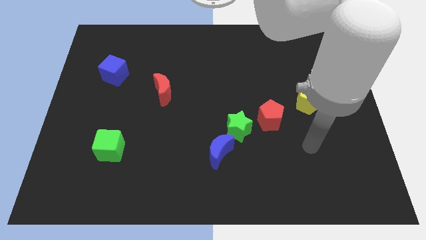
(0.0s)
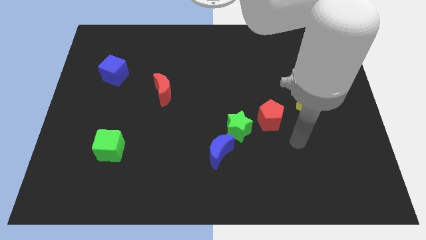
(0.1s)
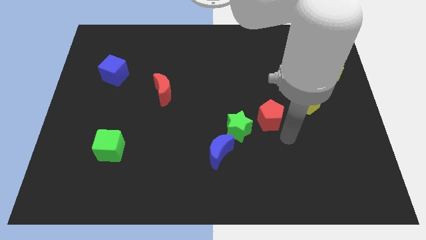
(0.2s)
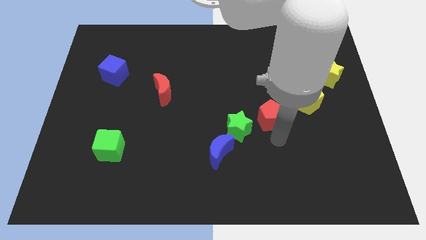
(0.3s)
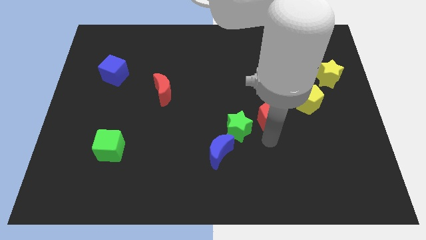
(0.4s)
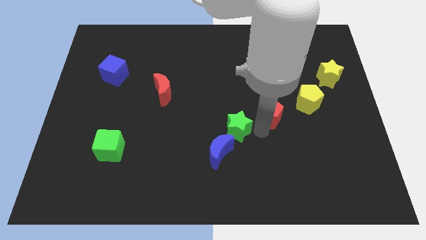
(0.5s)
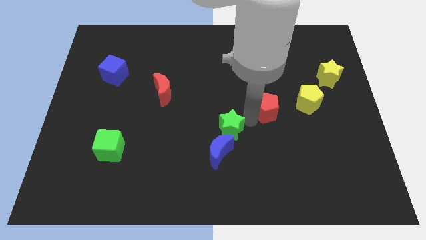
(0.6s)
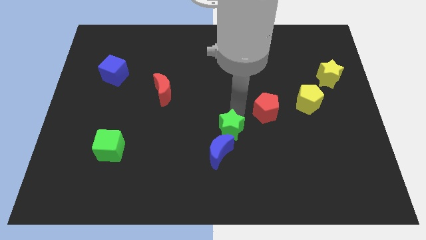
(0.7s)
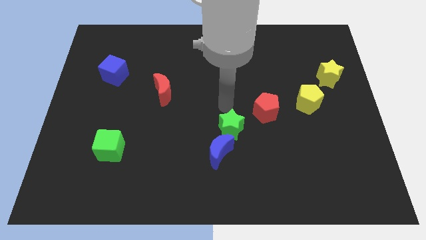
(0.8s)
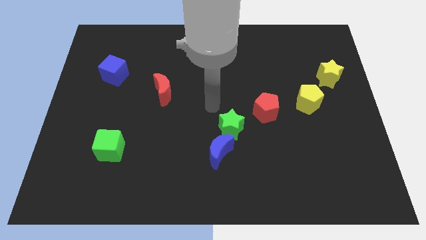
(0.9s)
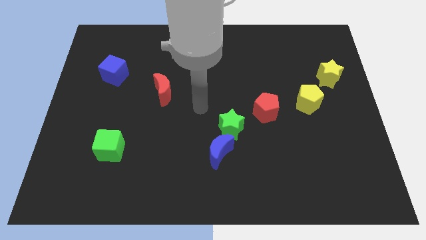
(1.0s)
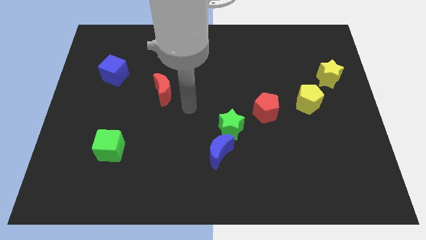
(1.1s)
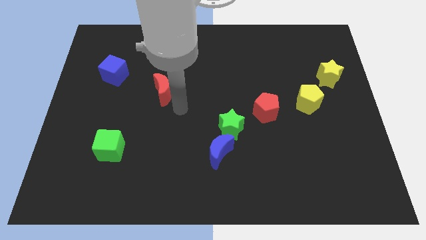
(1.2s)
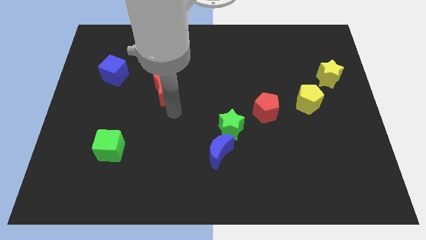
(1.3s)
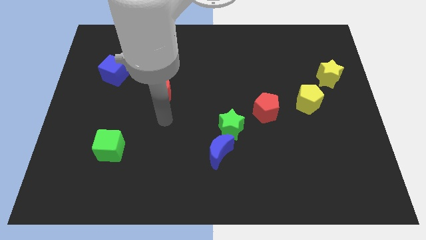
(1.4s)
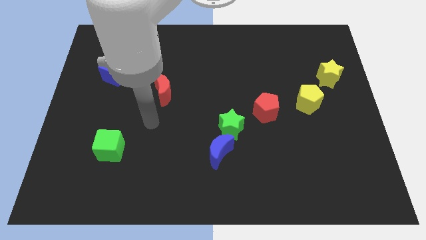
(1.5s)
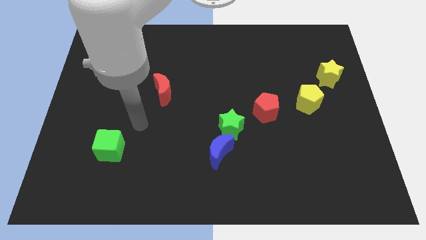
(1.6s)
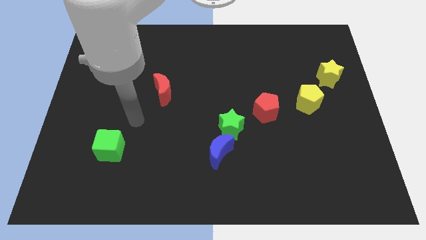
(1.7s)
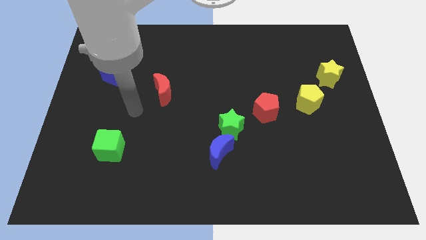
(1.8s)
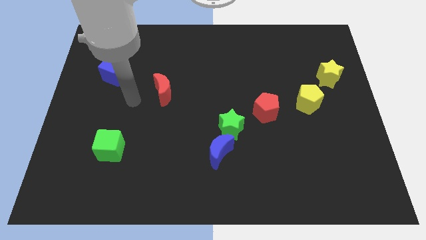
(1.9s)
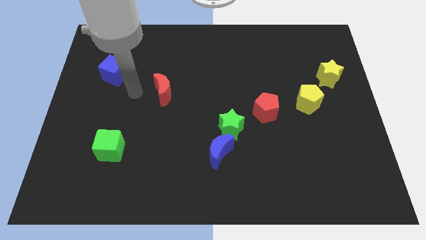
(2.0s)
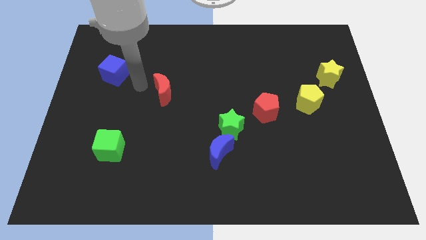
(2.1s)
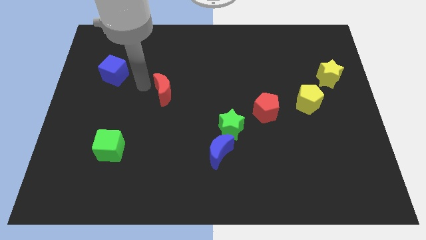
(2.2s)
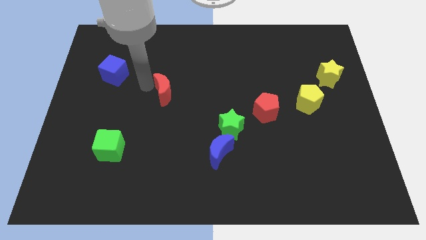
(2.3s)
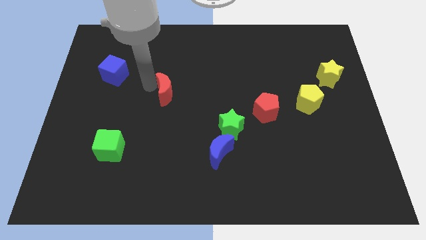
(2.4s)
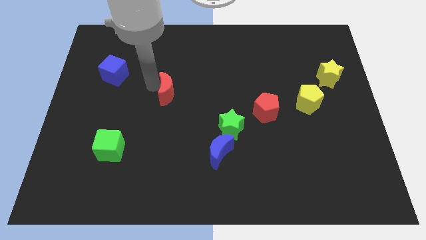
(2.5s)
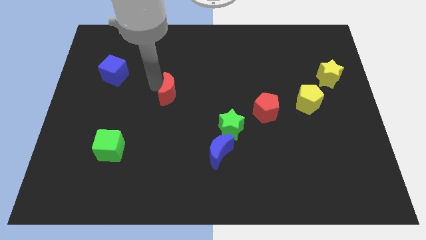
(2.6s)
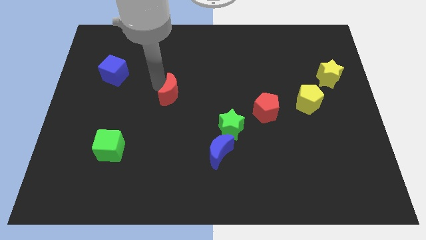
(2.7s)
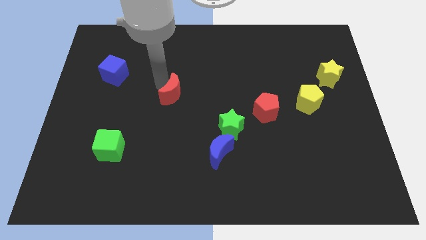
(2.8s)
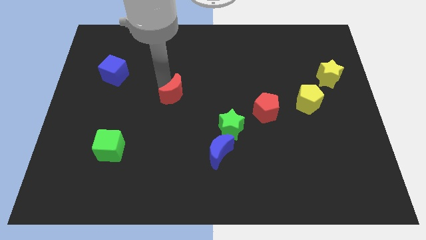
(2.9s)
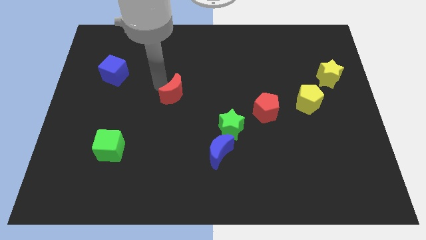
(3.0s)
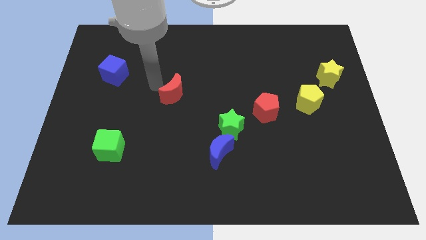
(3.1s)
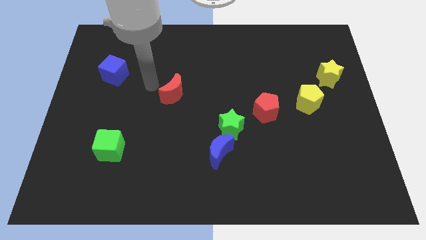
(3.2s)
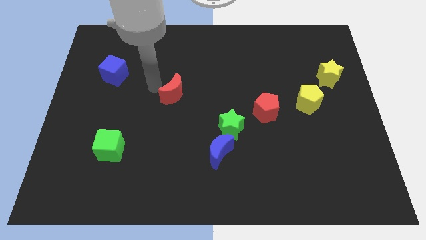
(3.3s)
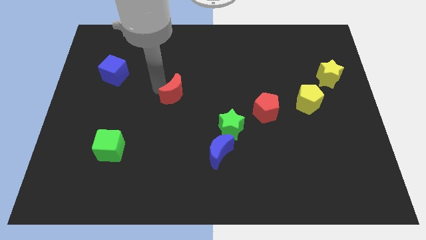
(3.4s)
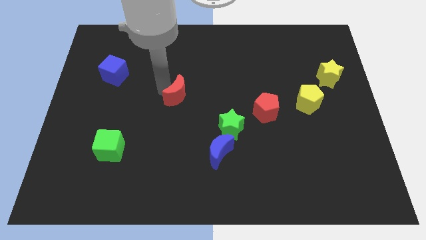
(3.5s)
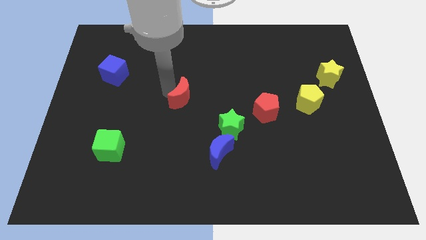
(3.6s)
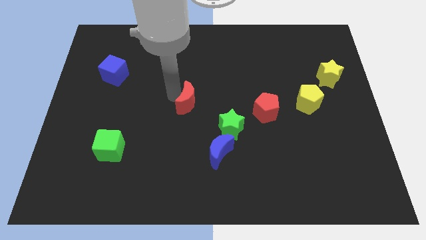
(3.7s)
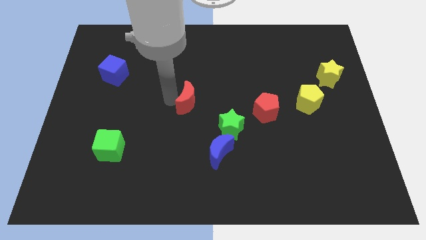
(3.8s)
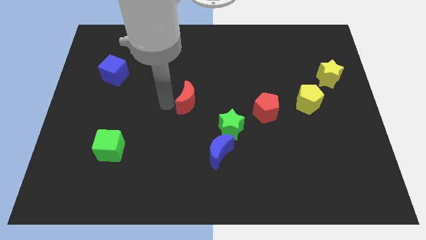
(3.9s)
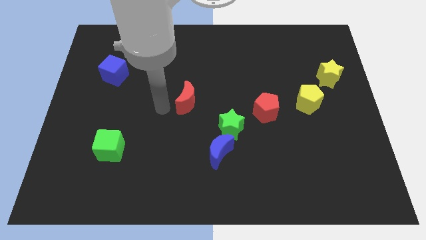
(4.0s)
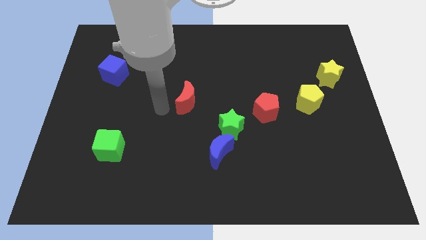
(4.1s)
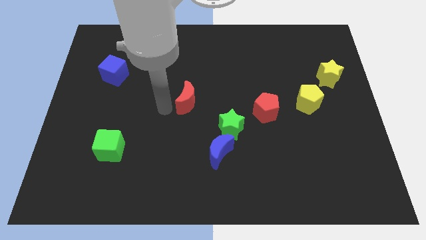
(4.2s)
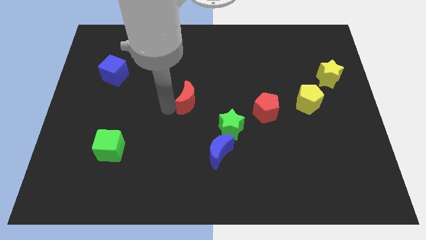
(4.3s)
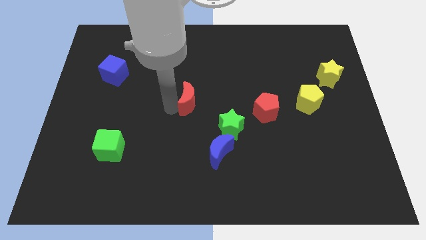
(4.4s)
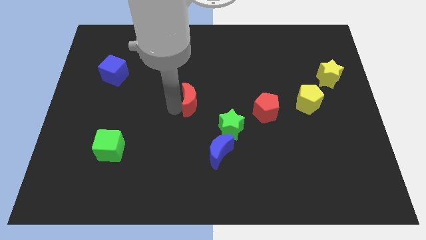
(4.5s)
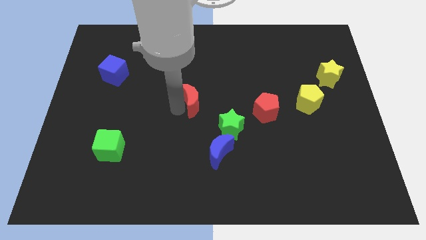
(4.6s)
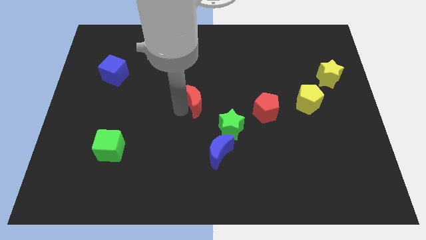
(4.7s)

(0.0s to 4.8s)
push the red moon a little to the right

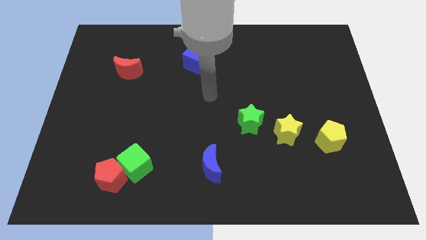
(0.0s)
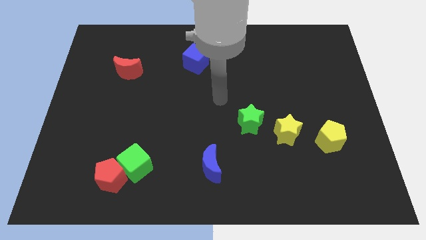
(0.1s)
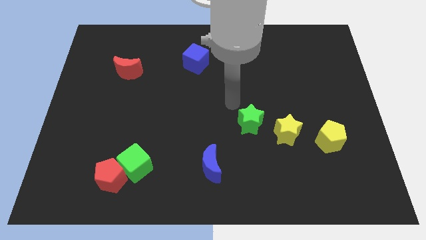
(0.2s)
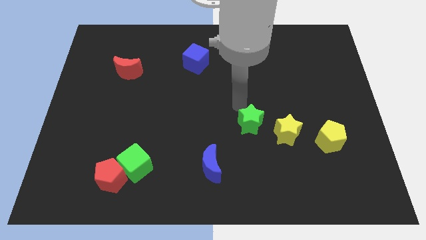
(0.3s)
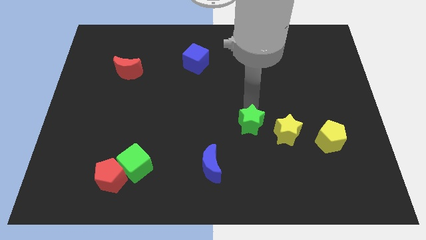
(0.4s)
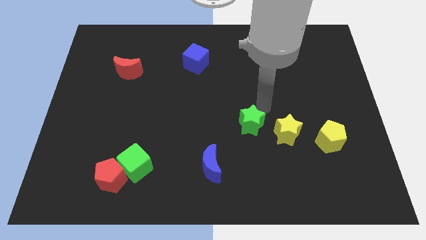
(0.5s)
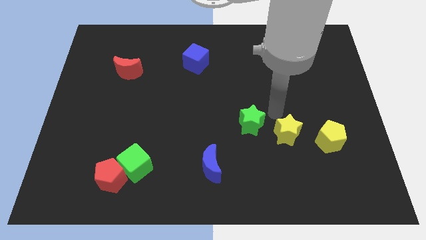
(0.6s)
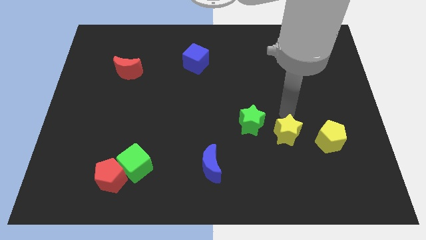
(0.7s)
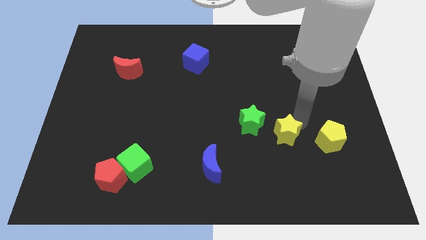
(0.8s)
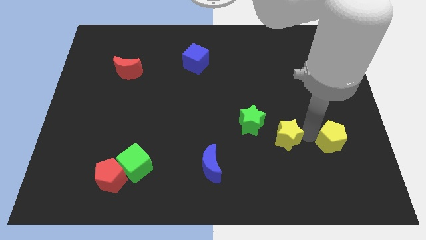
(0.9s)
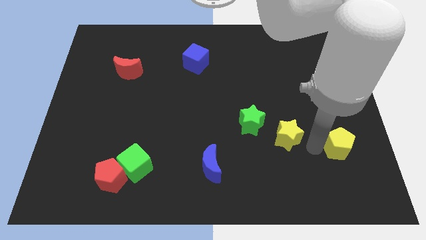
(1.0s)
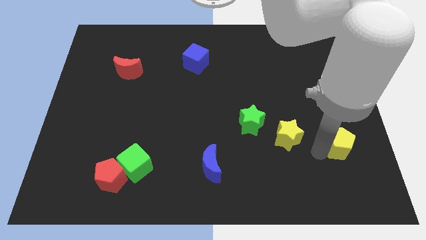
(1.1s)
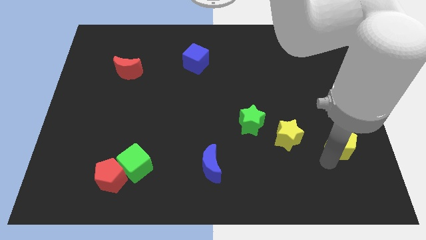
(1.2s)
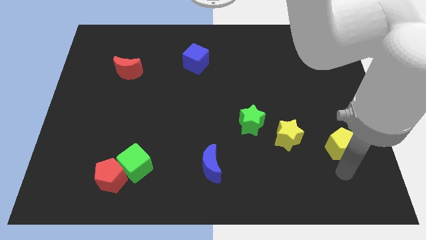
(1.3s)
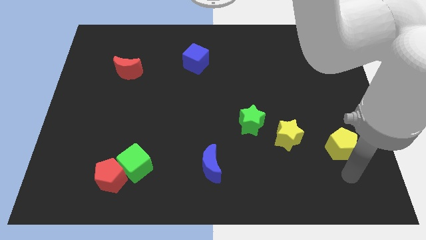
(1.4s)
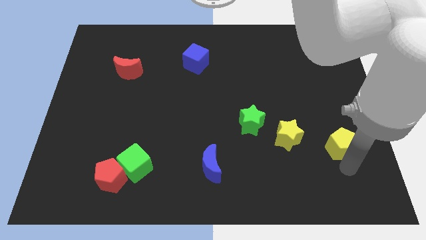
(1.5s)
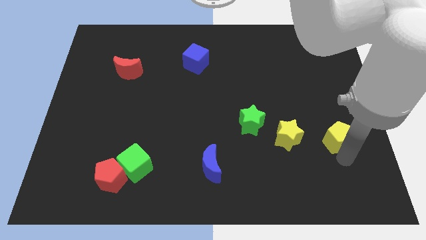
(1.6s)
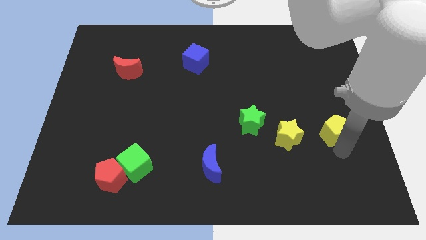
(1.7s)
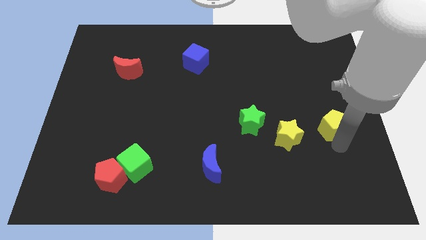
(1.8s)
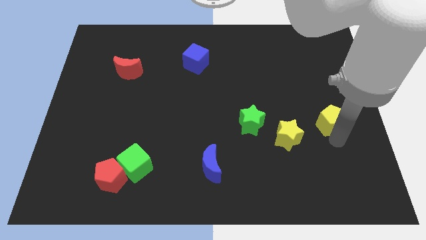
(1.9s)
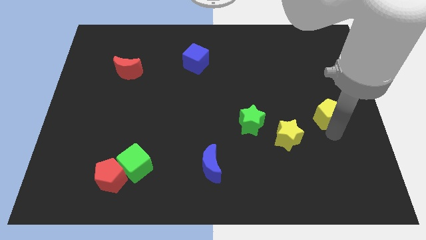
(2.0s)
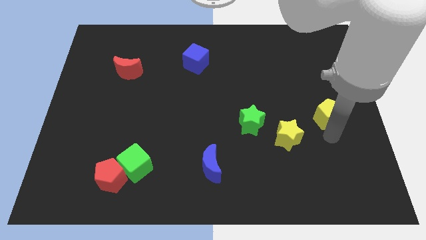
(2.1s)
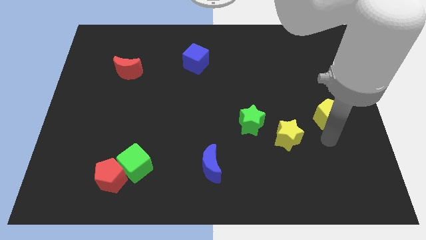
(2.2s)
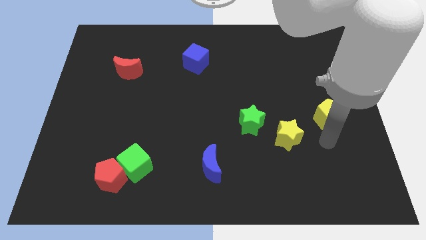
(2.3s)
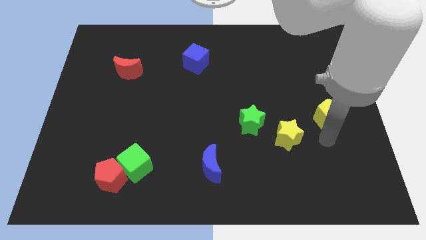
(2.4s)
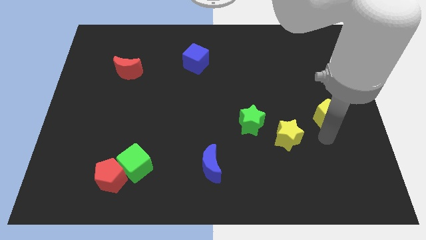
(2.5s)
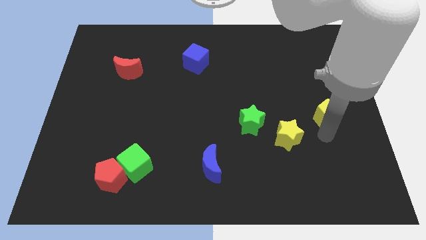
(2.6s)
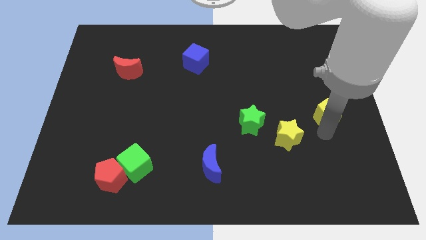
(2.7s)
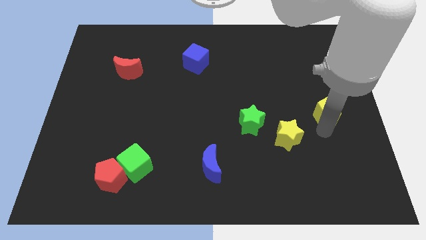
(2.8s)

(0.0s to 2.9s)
slide the yellow pentagon somewhat upwards

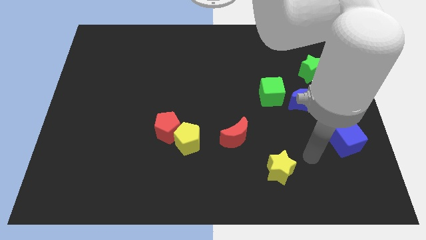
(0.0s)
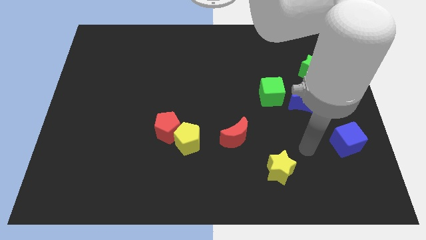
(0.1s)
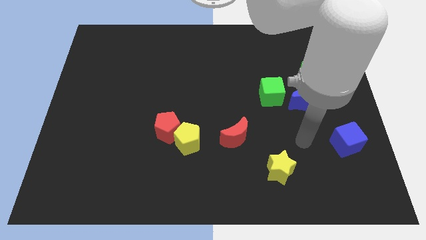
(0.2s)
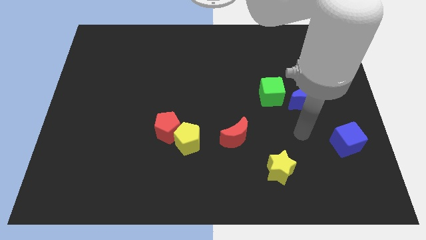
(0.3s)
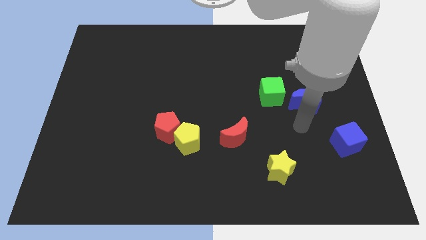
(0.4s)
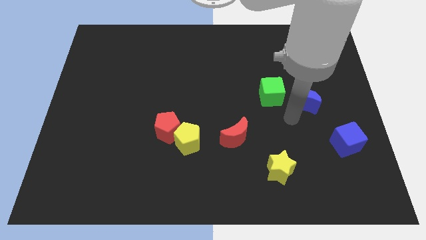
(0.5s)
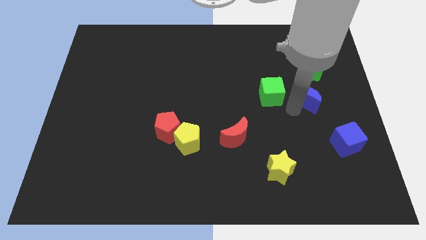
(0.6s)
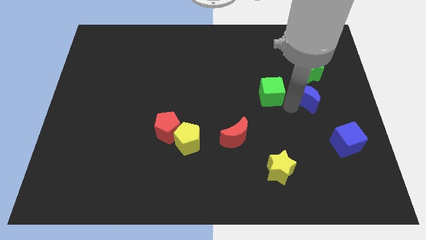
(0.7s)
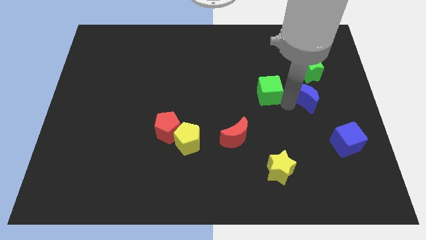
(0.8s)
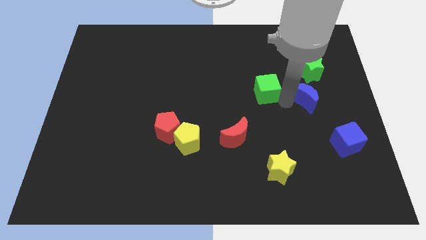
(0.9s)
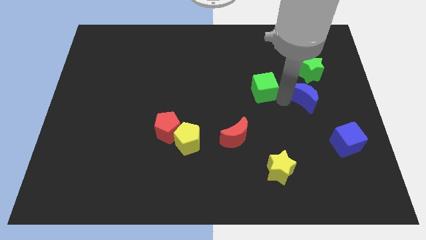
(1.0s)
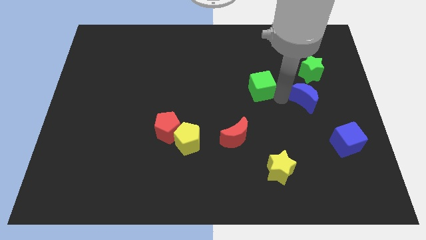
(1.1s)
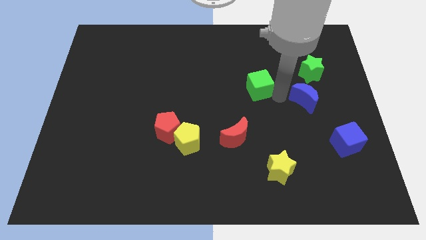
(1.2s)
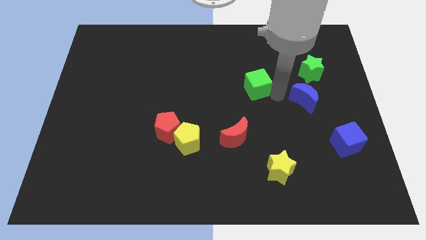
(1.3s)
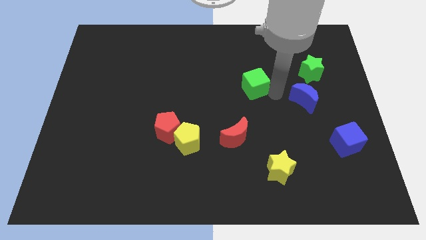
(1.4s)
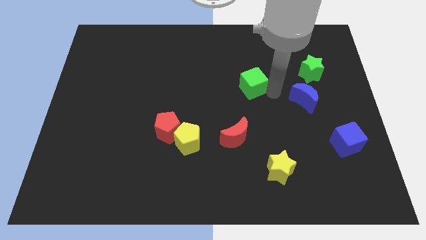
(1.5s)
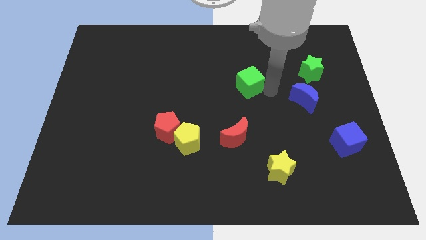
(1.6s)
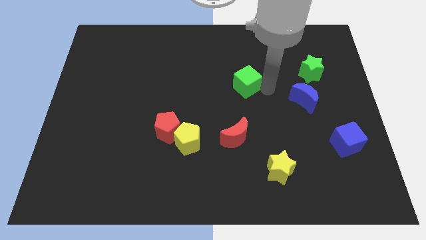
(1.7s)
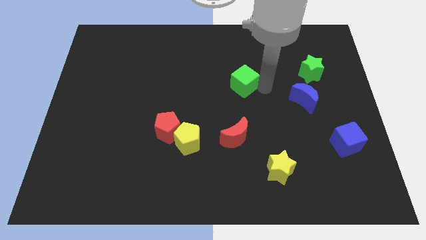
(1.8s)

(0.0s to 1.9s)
move the green cube upwards and left diagonally a little
